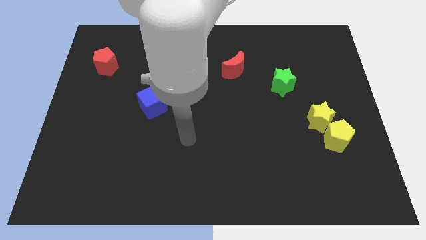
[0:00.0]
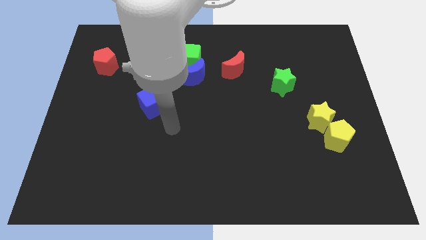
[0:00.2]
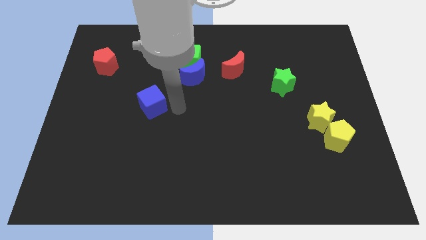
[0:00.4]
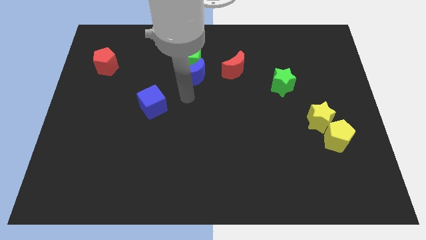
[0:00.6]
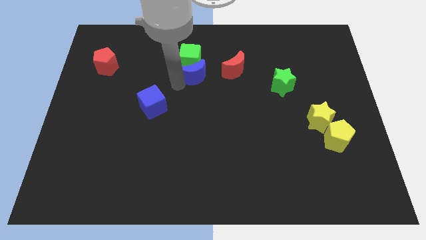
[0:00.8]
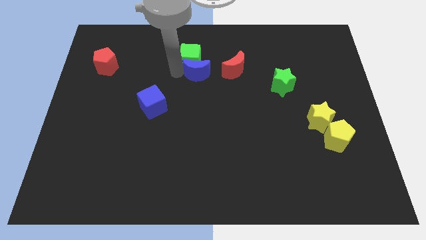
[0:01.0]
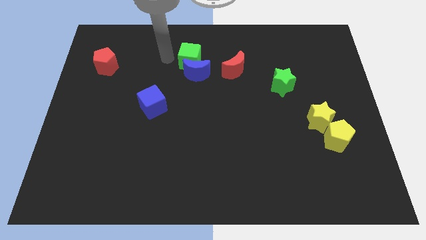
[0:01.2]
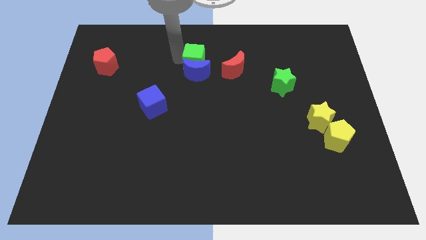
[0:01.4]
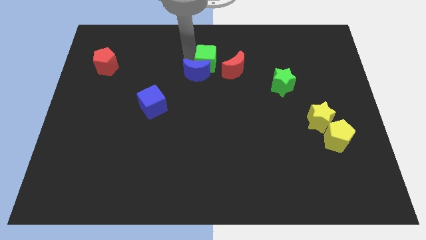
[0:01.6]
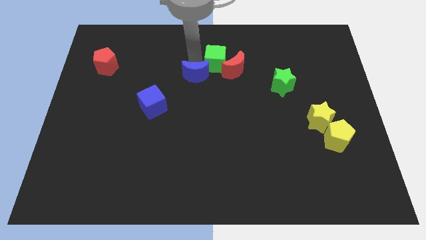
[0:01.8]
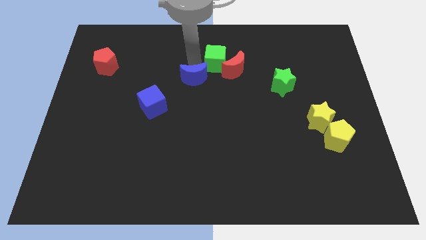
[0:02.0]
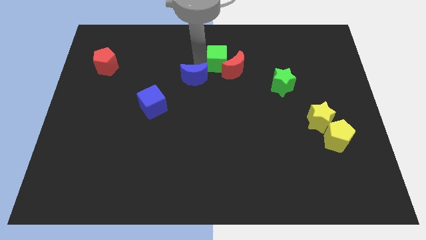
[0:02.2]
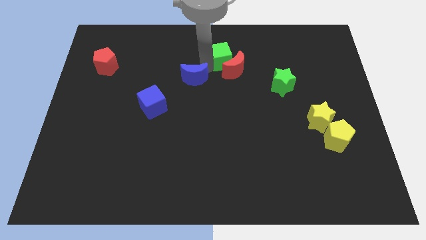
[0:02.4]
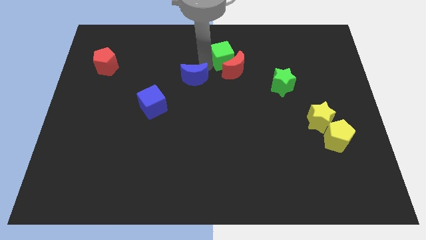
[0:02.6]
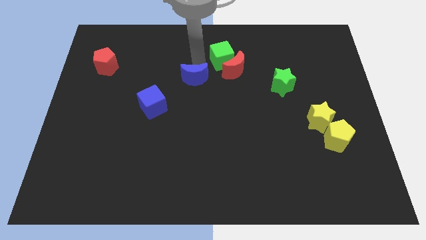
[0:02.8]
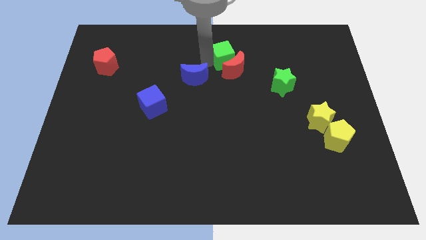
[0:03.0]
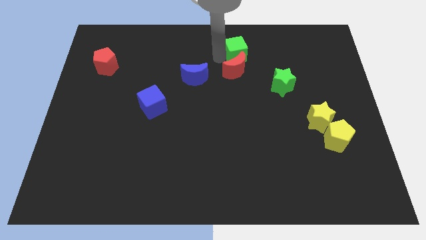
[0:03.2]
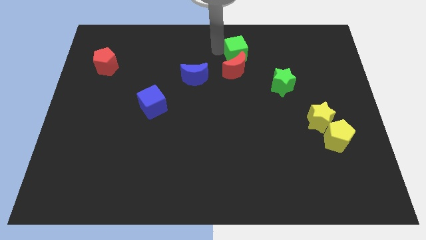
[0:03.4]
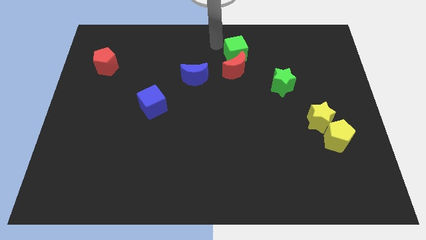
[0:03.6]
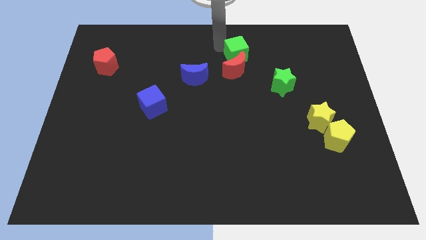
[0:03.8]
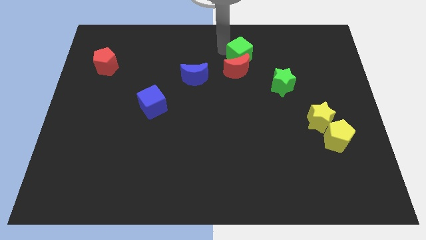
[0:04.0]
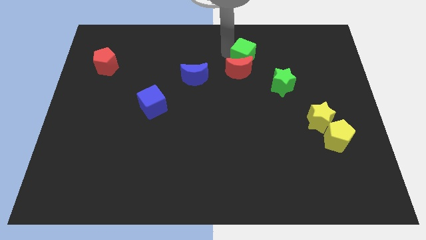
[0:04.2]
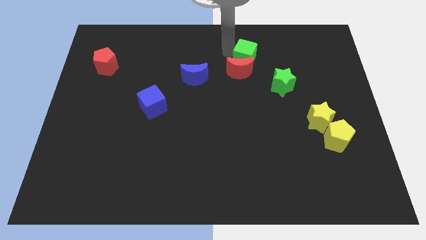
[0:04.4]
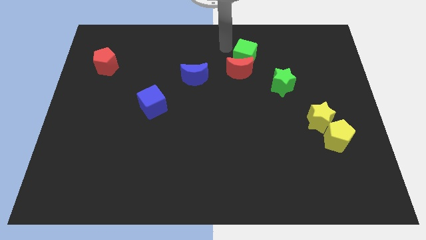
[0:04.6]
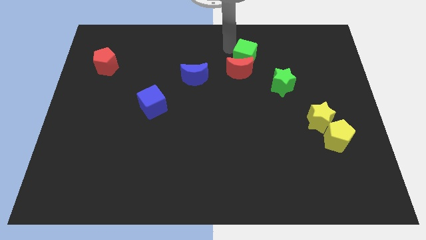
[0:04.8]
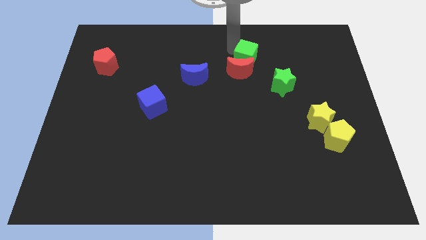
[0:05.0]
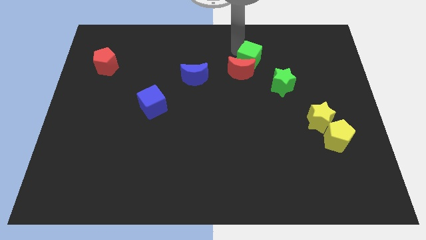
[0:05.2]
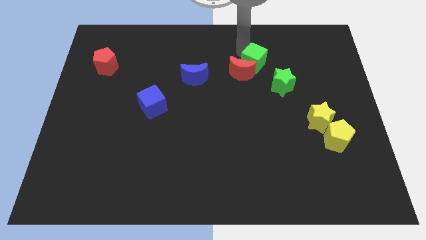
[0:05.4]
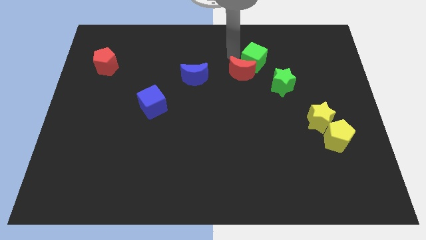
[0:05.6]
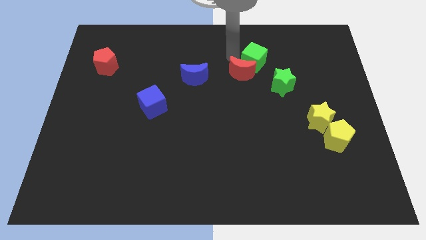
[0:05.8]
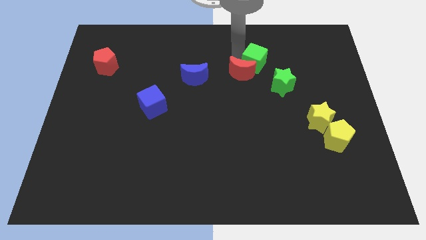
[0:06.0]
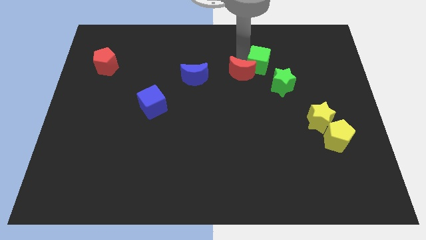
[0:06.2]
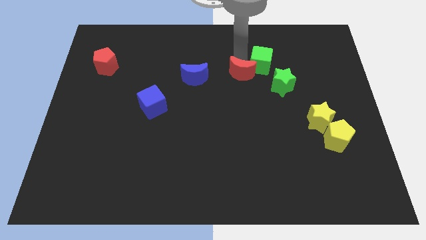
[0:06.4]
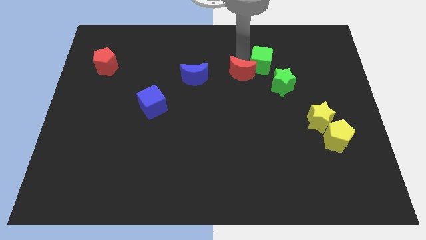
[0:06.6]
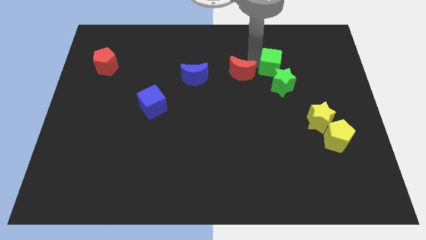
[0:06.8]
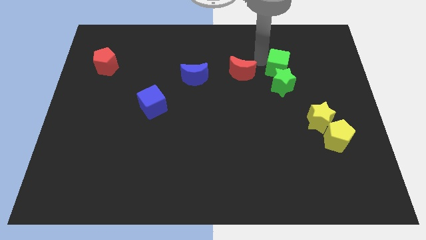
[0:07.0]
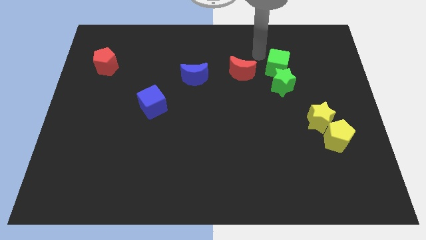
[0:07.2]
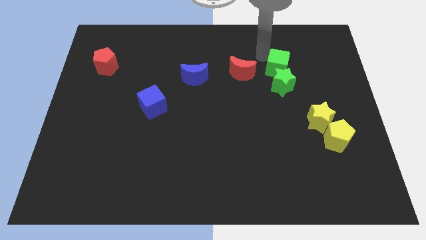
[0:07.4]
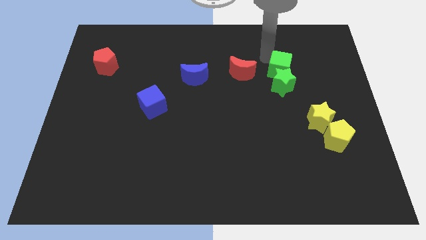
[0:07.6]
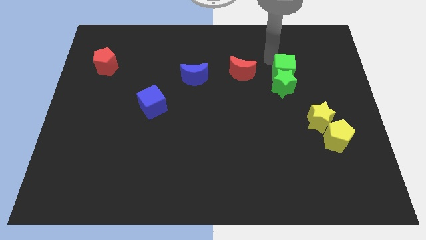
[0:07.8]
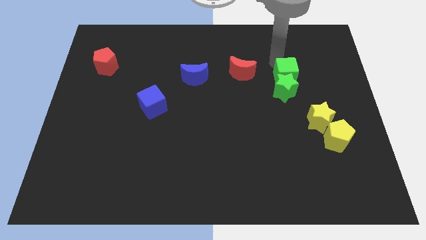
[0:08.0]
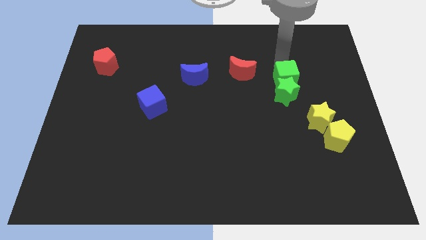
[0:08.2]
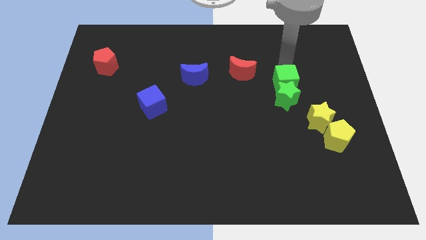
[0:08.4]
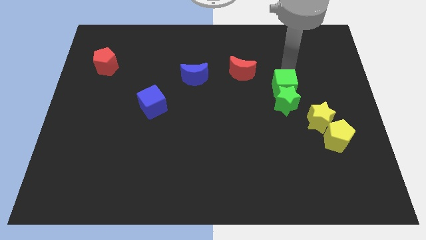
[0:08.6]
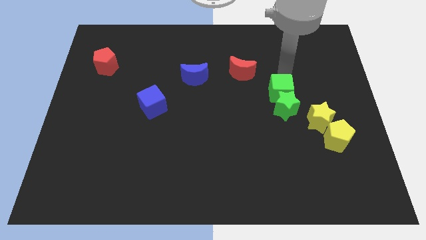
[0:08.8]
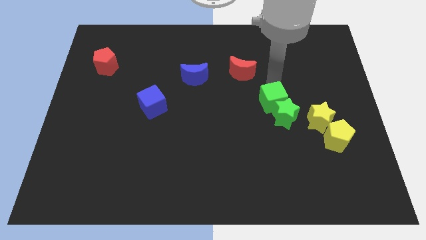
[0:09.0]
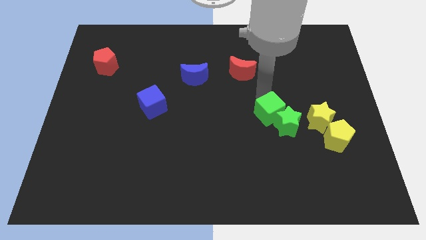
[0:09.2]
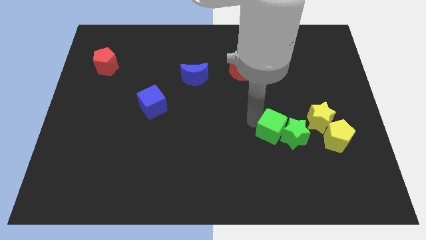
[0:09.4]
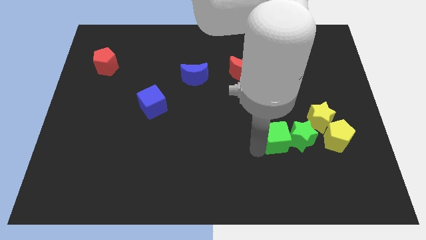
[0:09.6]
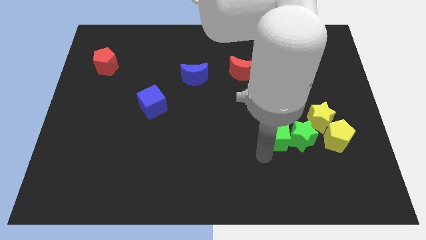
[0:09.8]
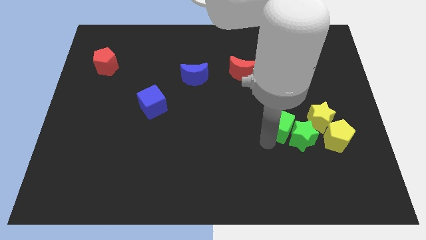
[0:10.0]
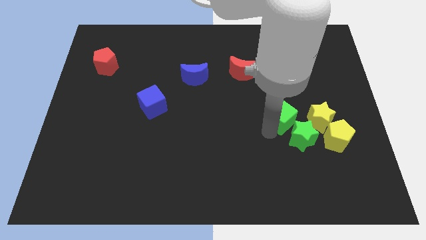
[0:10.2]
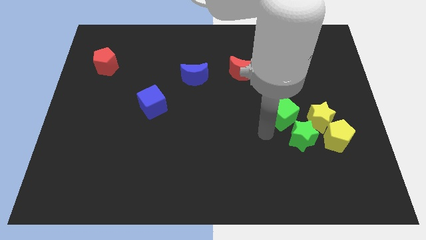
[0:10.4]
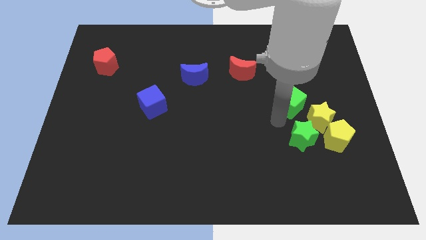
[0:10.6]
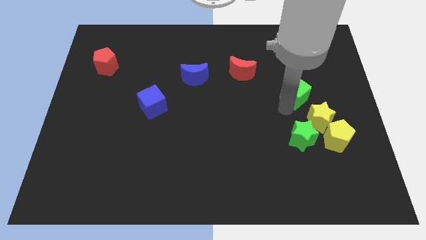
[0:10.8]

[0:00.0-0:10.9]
push the green cube to the top of the yellow star
